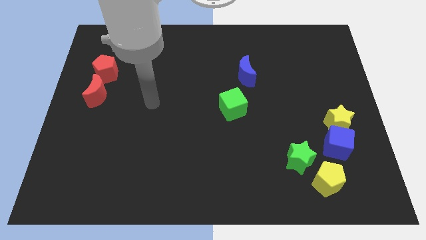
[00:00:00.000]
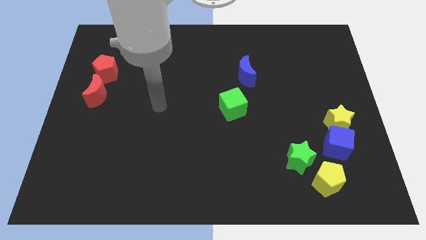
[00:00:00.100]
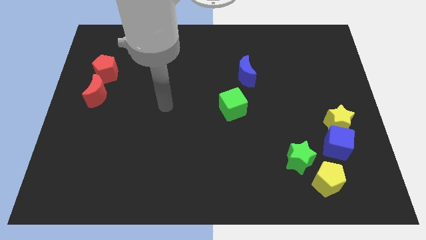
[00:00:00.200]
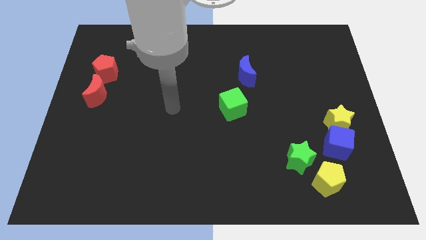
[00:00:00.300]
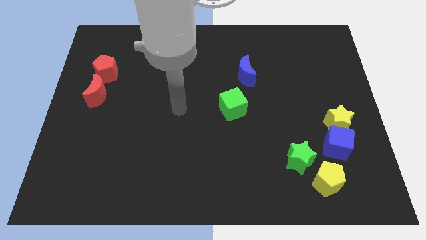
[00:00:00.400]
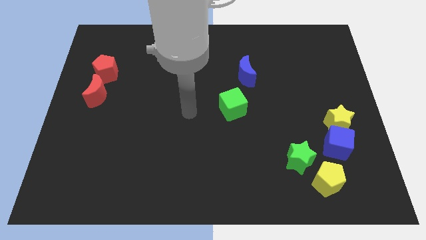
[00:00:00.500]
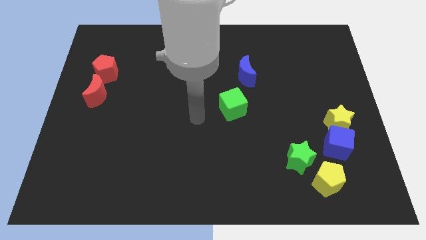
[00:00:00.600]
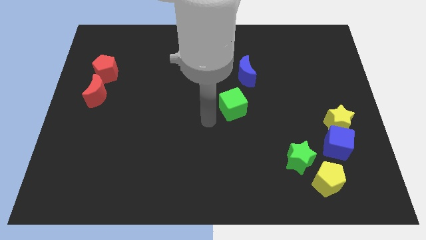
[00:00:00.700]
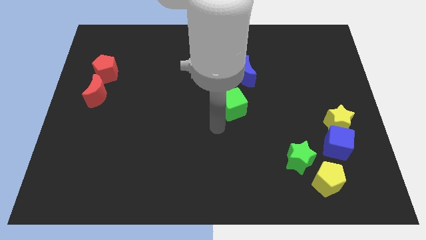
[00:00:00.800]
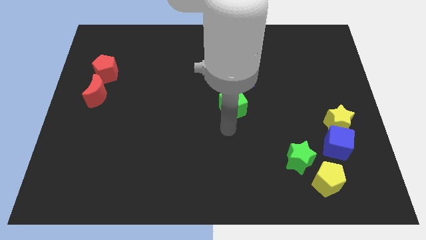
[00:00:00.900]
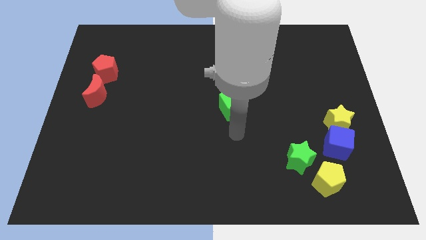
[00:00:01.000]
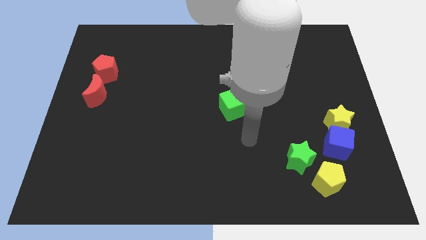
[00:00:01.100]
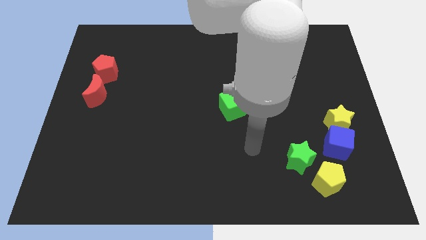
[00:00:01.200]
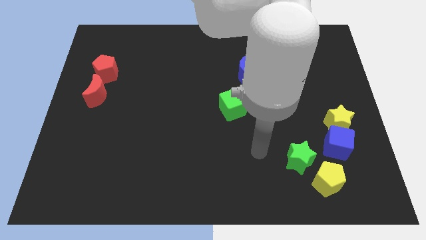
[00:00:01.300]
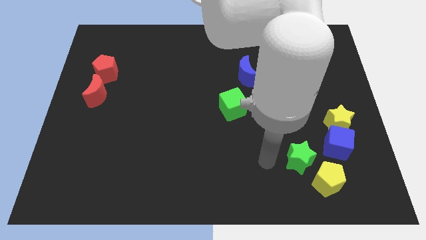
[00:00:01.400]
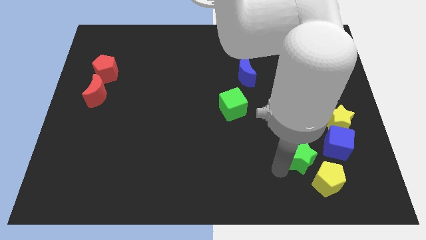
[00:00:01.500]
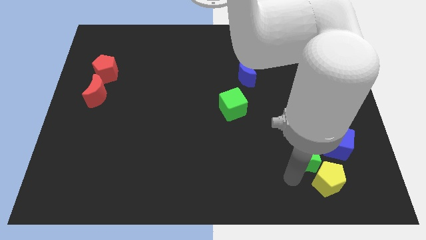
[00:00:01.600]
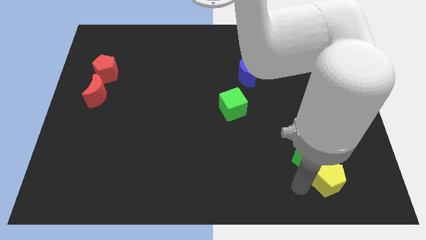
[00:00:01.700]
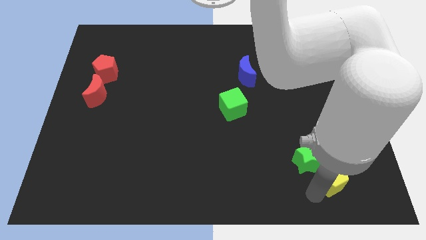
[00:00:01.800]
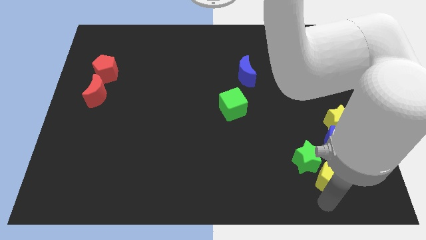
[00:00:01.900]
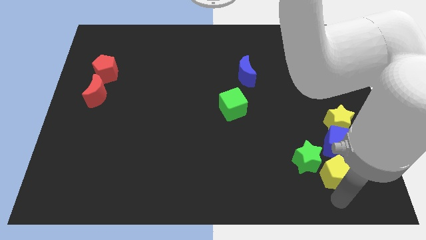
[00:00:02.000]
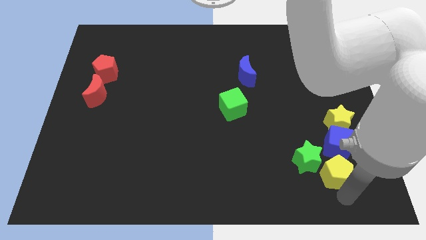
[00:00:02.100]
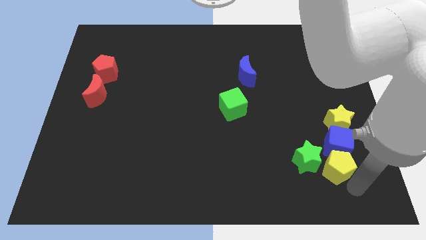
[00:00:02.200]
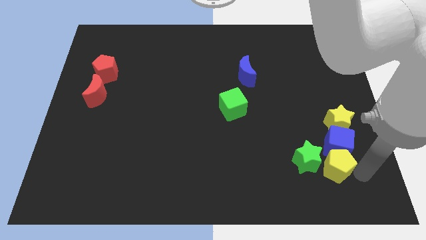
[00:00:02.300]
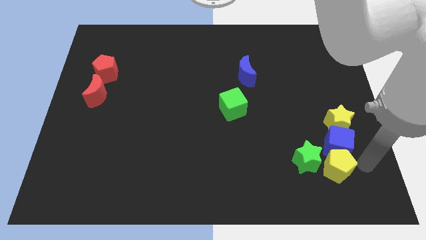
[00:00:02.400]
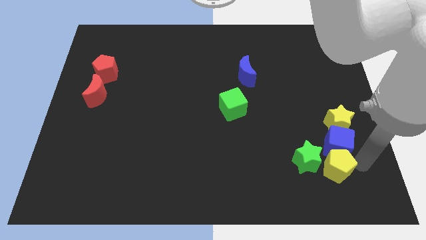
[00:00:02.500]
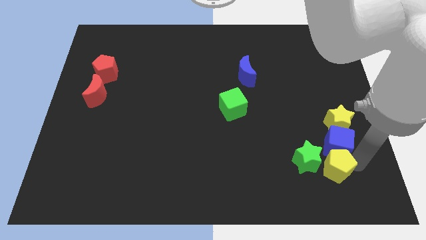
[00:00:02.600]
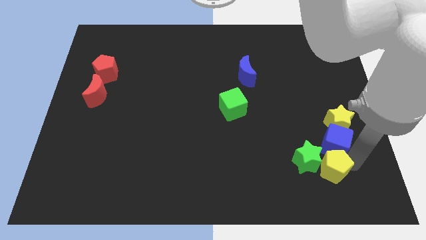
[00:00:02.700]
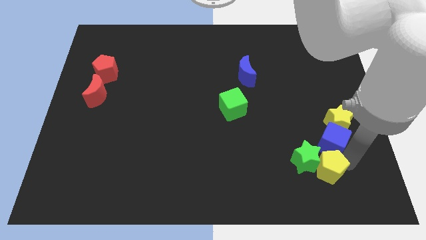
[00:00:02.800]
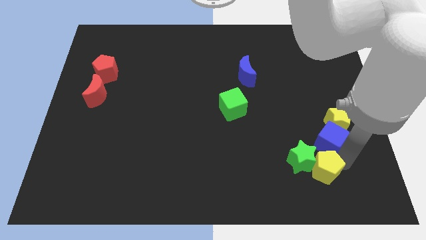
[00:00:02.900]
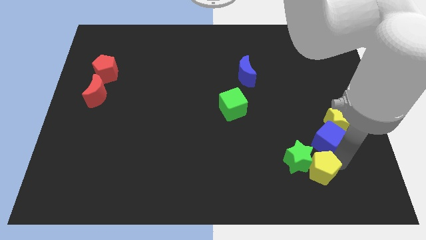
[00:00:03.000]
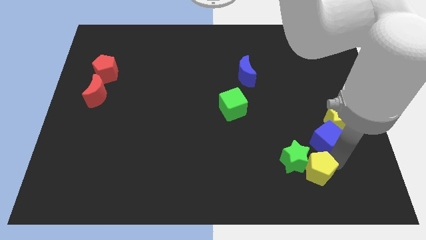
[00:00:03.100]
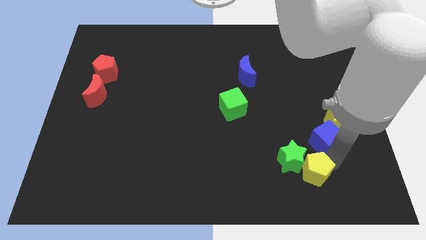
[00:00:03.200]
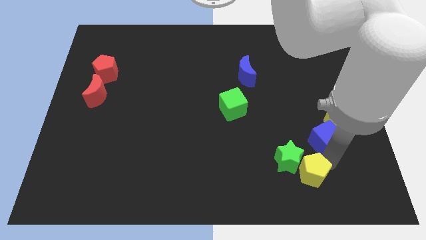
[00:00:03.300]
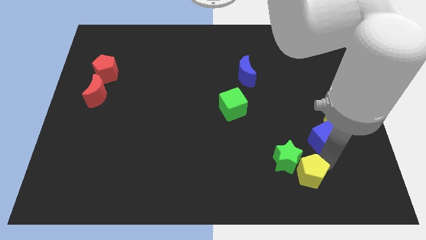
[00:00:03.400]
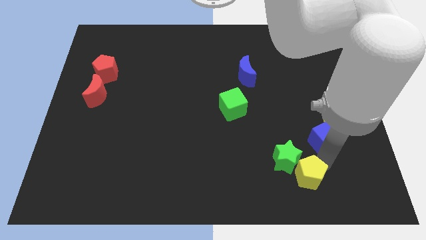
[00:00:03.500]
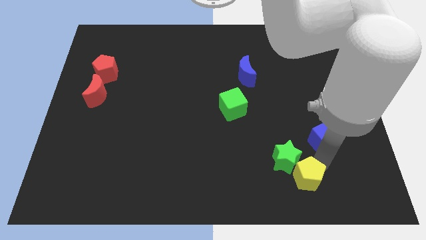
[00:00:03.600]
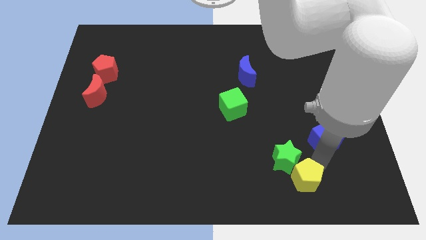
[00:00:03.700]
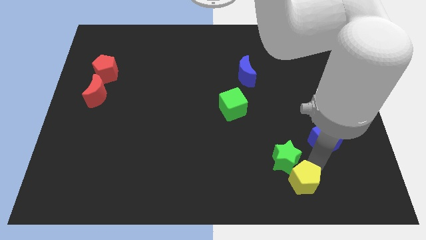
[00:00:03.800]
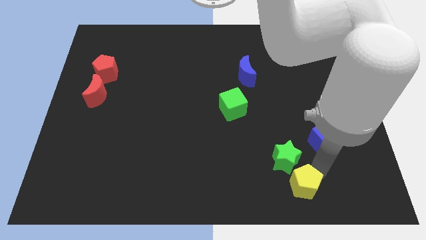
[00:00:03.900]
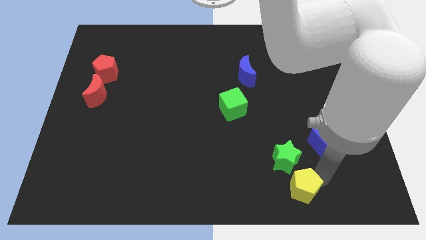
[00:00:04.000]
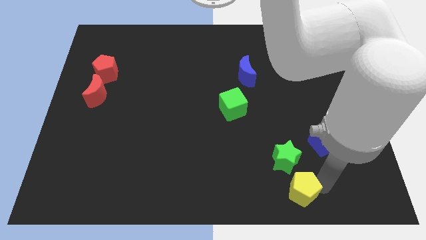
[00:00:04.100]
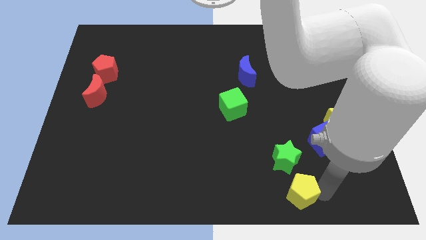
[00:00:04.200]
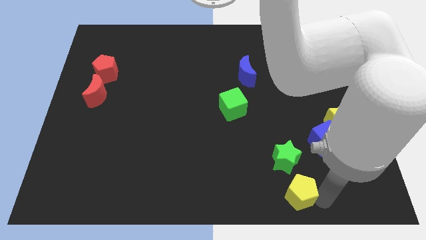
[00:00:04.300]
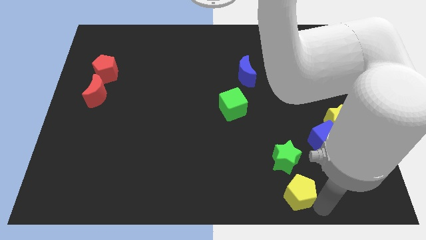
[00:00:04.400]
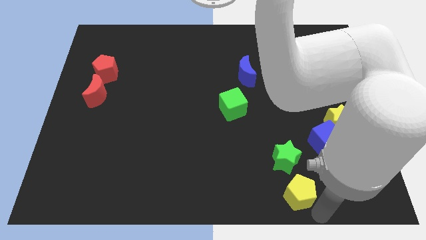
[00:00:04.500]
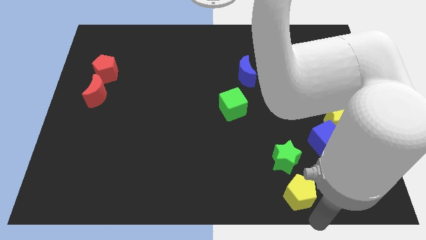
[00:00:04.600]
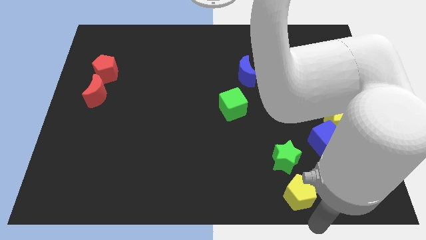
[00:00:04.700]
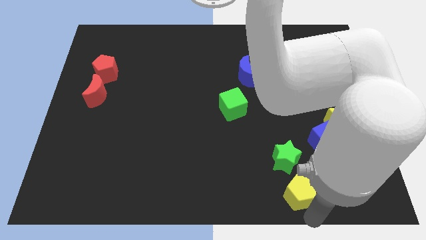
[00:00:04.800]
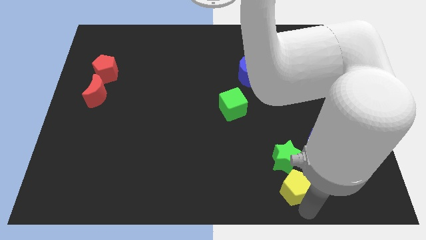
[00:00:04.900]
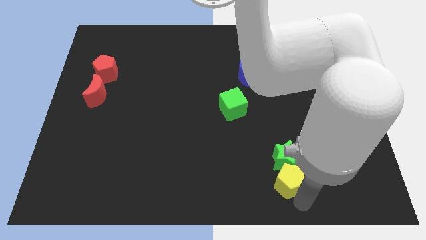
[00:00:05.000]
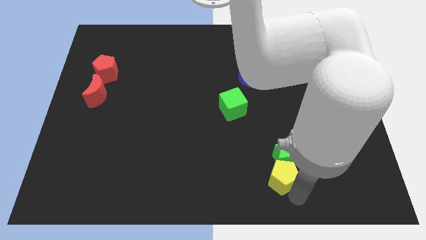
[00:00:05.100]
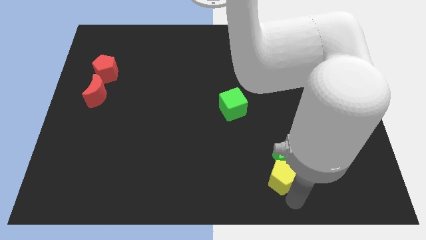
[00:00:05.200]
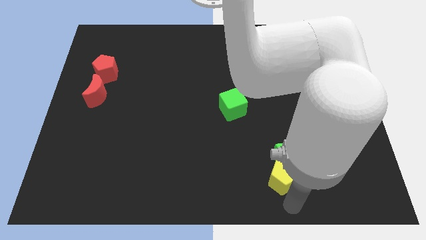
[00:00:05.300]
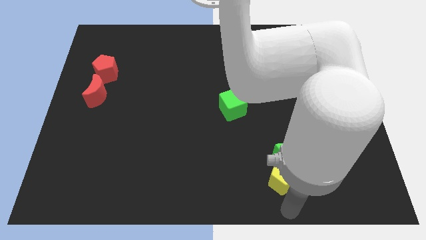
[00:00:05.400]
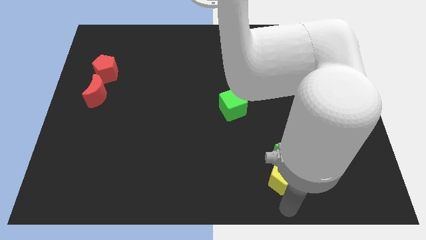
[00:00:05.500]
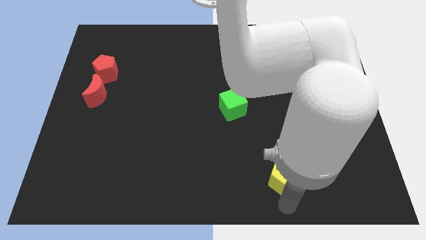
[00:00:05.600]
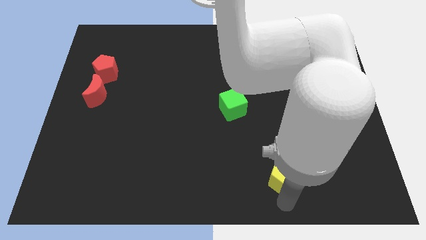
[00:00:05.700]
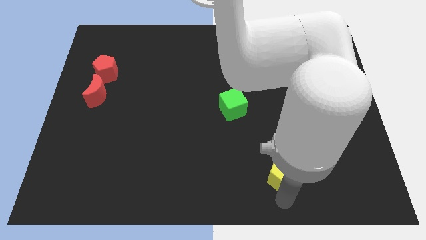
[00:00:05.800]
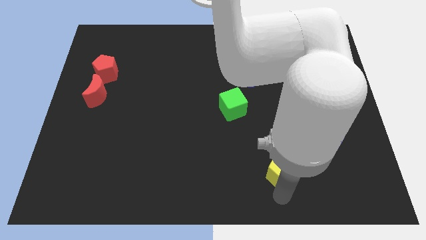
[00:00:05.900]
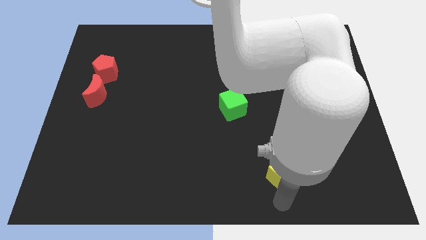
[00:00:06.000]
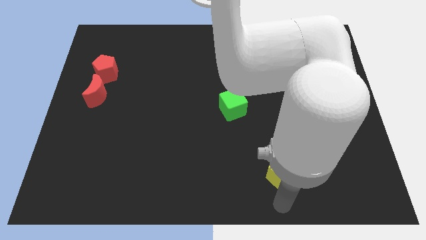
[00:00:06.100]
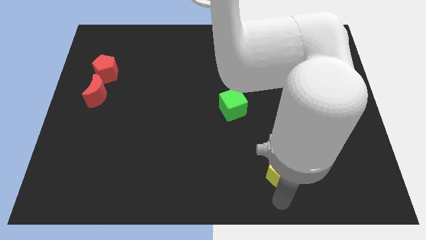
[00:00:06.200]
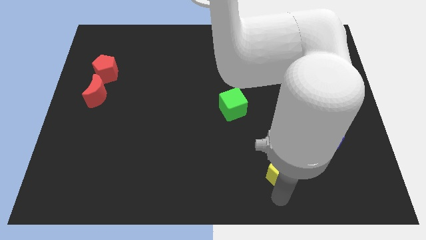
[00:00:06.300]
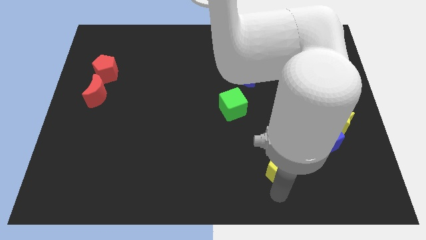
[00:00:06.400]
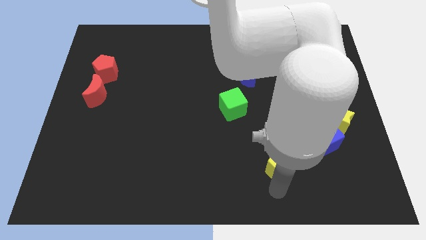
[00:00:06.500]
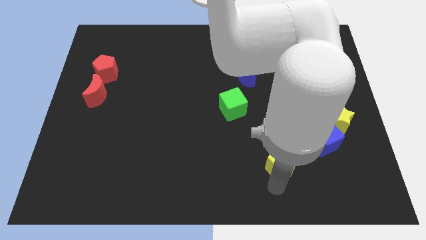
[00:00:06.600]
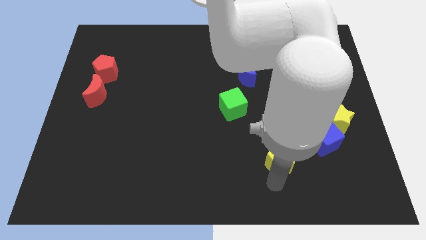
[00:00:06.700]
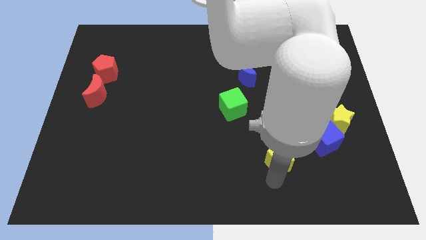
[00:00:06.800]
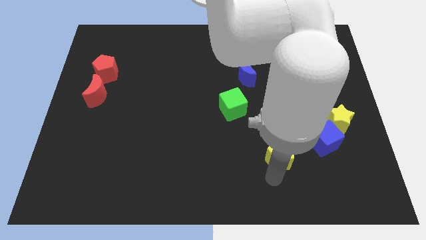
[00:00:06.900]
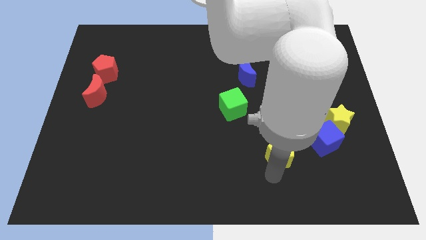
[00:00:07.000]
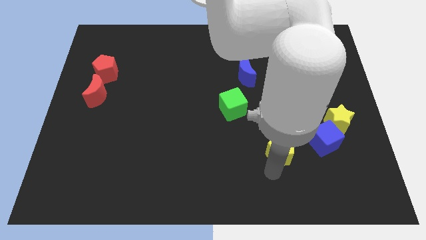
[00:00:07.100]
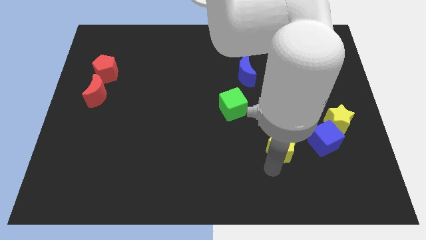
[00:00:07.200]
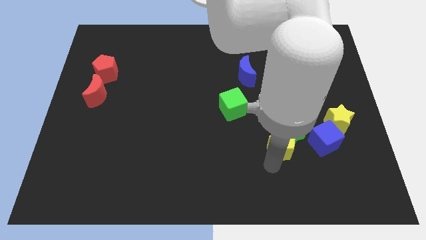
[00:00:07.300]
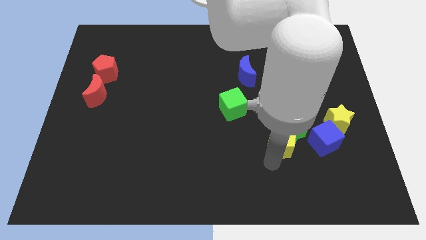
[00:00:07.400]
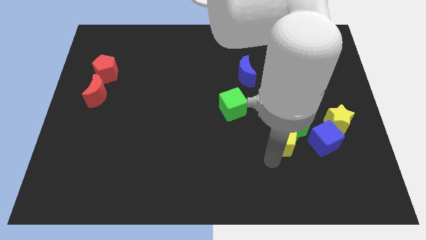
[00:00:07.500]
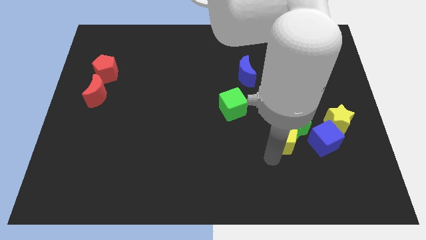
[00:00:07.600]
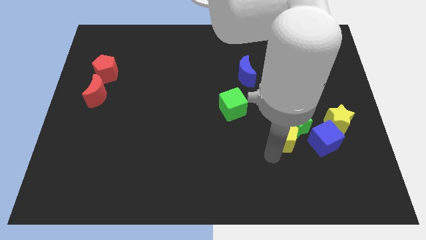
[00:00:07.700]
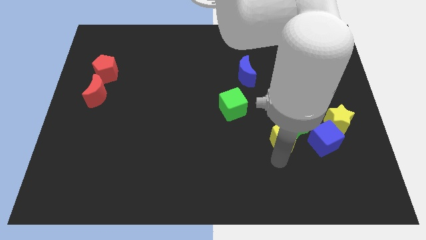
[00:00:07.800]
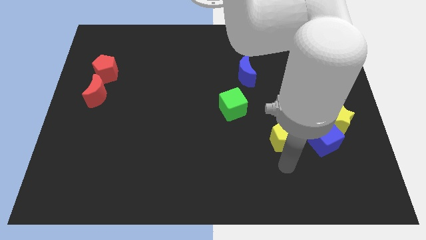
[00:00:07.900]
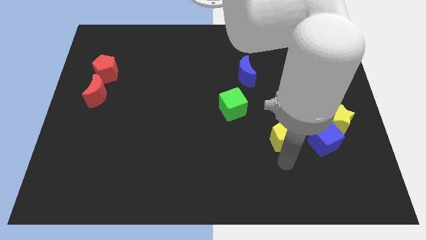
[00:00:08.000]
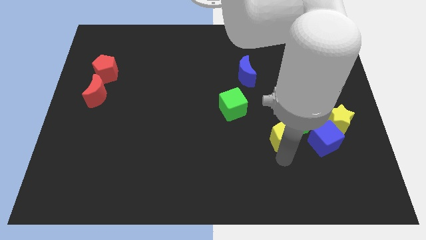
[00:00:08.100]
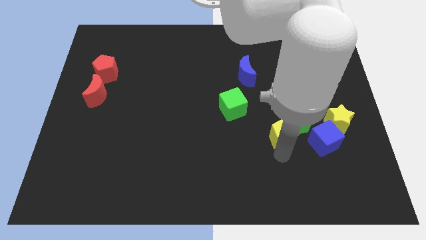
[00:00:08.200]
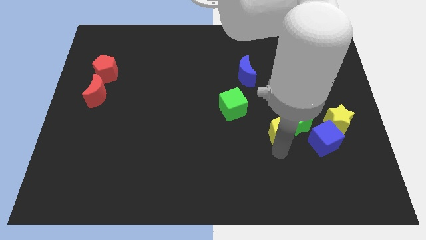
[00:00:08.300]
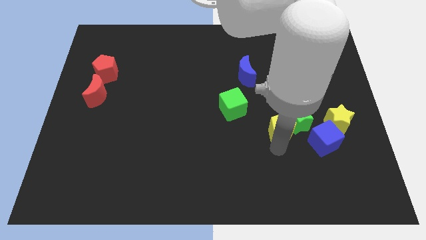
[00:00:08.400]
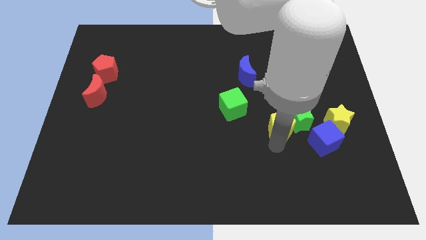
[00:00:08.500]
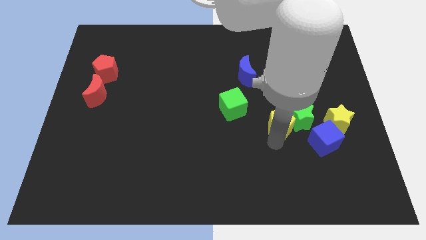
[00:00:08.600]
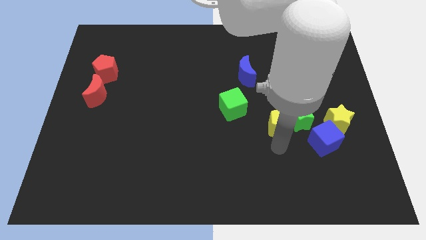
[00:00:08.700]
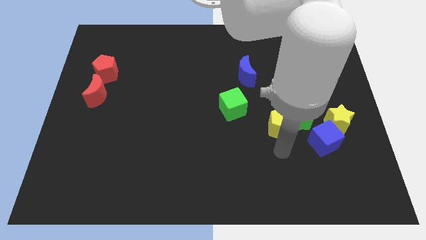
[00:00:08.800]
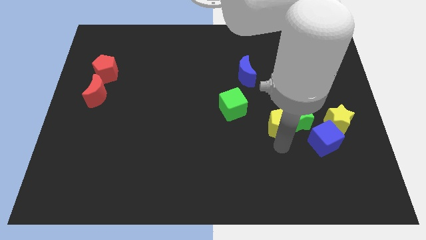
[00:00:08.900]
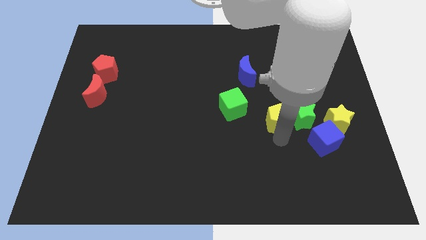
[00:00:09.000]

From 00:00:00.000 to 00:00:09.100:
push the yellow pentagon to the right of the green cube
